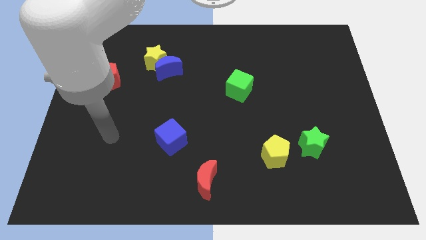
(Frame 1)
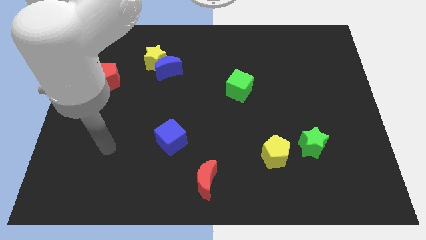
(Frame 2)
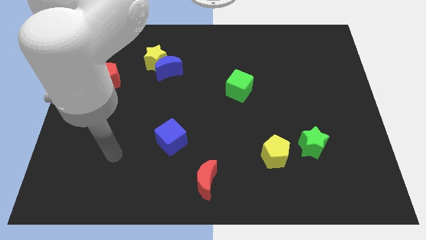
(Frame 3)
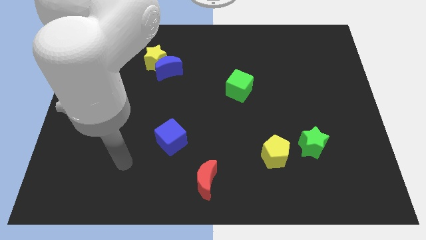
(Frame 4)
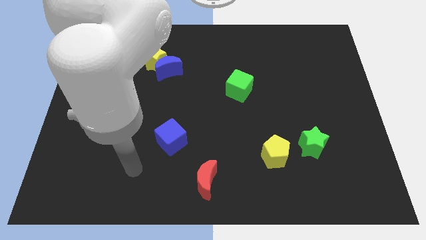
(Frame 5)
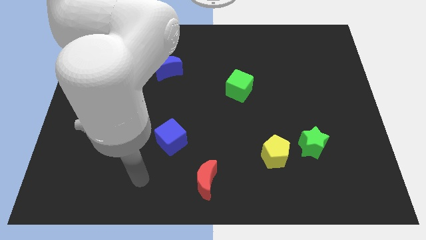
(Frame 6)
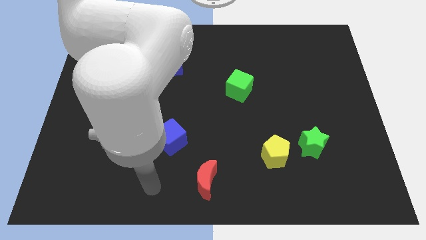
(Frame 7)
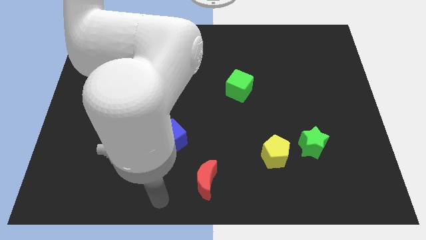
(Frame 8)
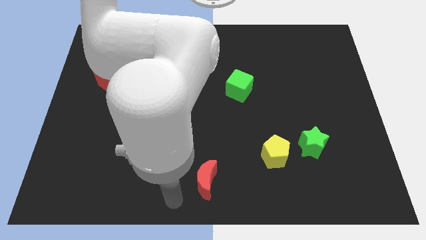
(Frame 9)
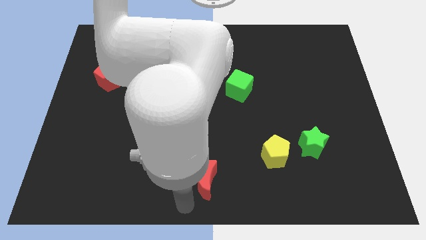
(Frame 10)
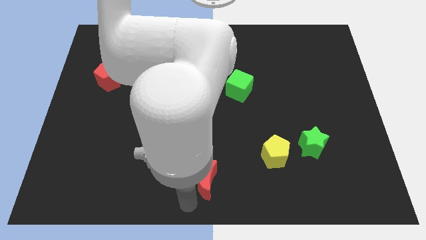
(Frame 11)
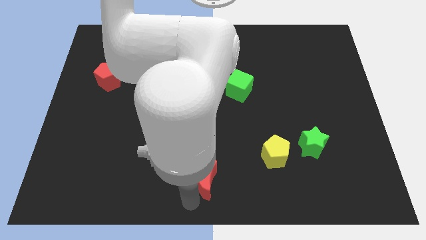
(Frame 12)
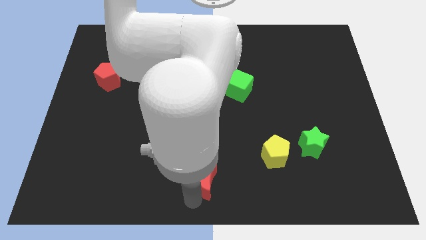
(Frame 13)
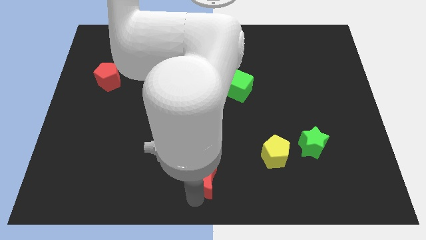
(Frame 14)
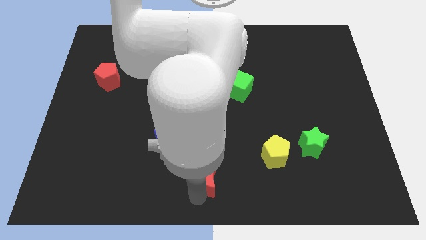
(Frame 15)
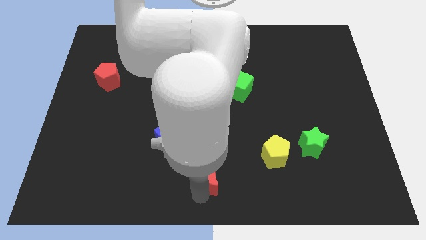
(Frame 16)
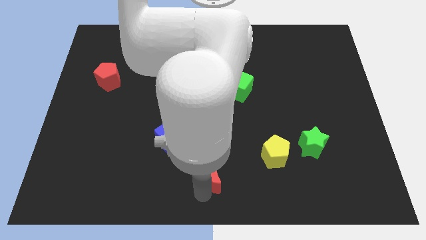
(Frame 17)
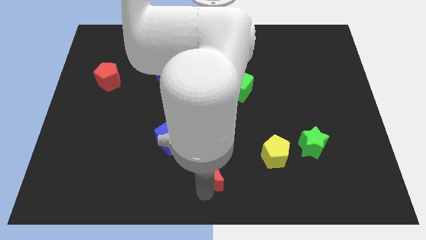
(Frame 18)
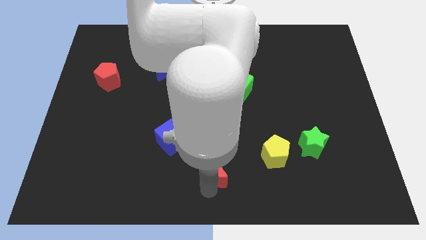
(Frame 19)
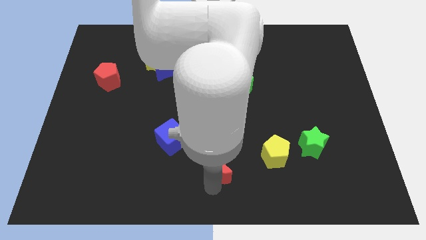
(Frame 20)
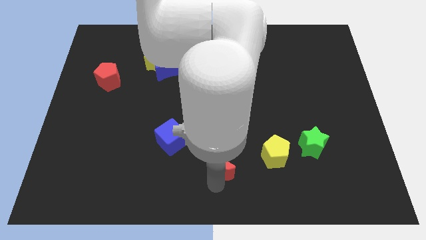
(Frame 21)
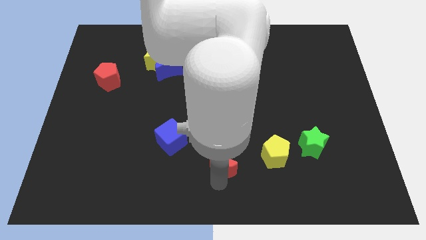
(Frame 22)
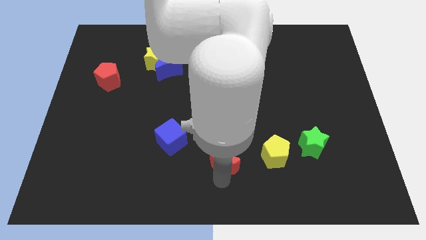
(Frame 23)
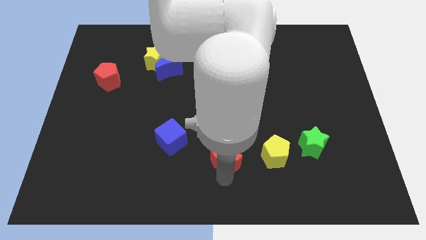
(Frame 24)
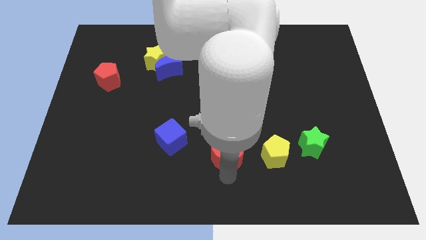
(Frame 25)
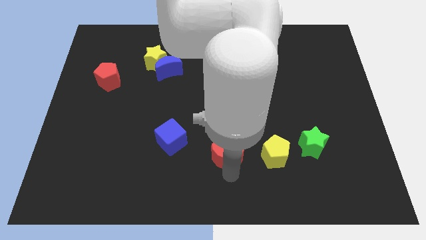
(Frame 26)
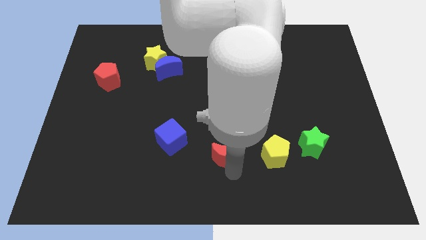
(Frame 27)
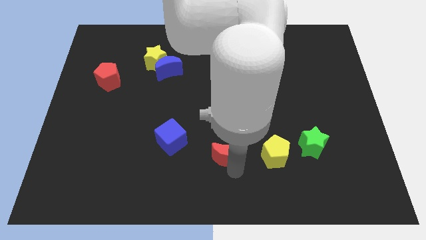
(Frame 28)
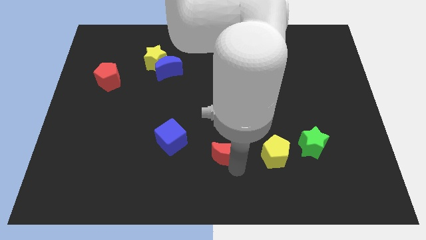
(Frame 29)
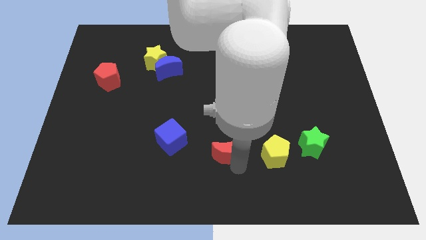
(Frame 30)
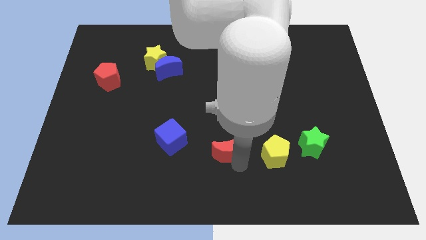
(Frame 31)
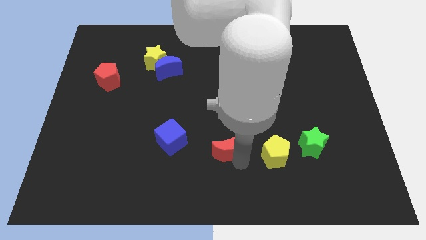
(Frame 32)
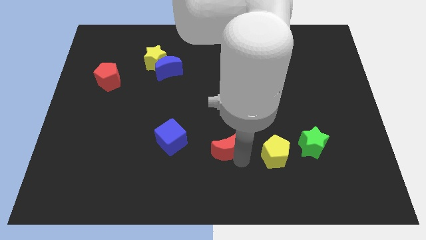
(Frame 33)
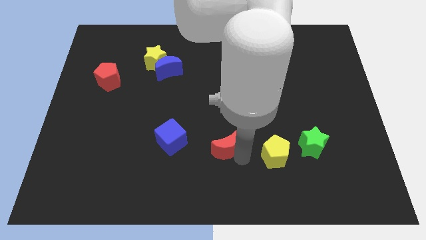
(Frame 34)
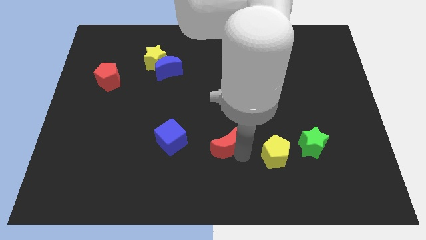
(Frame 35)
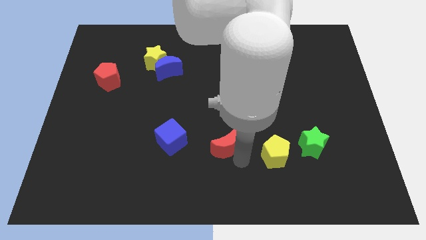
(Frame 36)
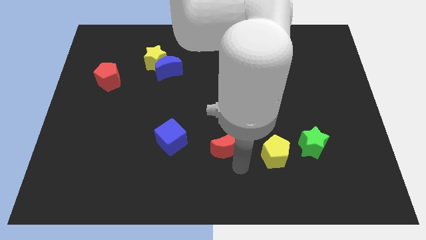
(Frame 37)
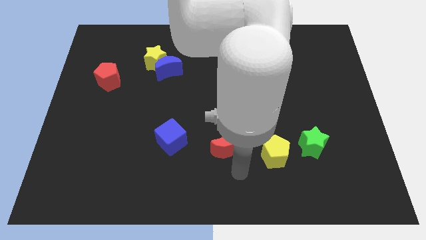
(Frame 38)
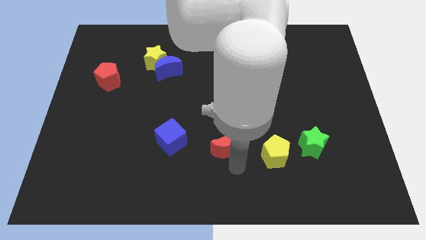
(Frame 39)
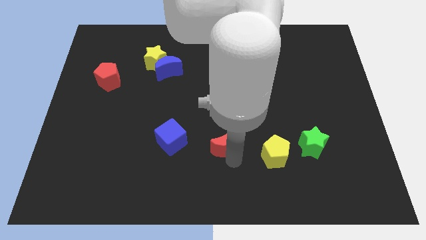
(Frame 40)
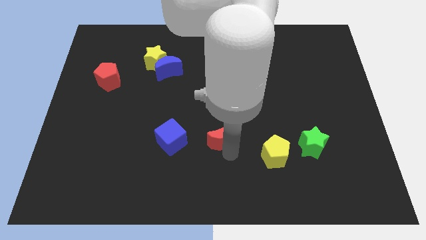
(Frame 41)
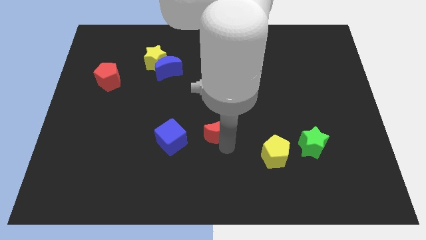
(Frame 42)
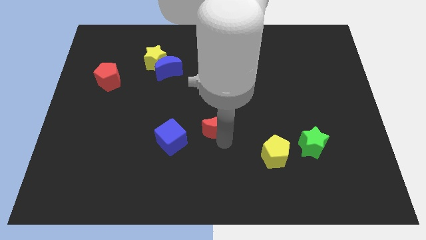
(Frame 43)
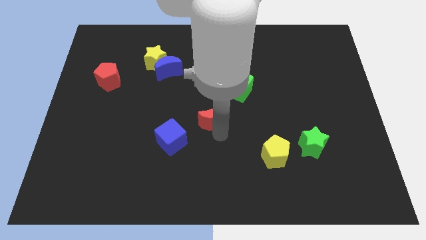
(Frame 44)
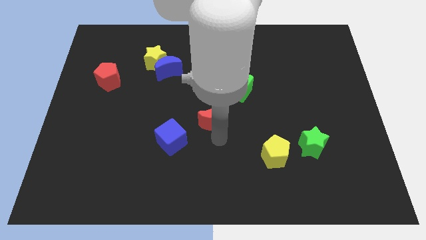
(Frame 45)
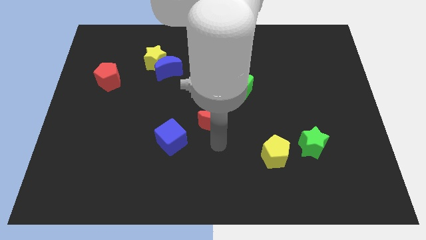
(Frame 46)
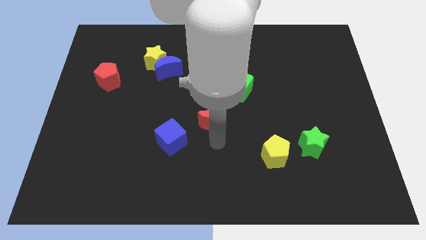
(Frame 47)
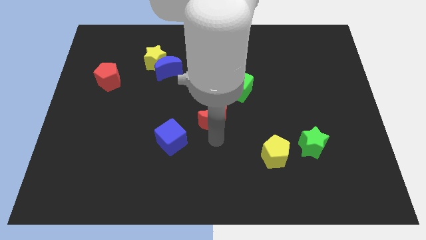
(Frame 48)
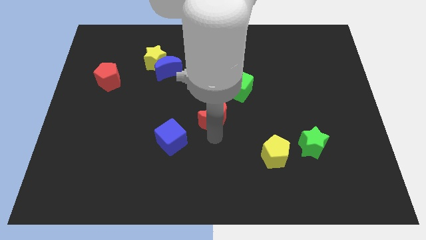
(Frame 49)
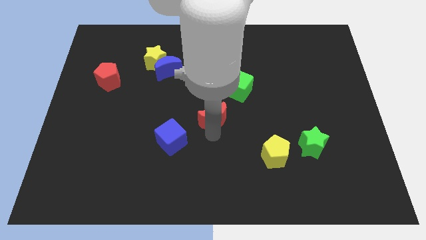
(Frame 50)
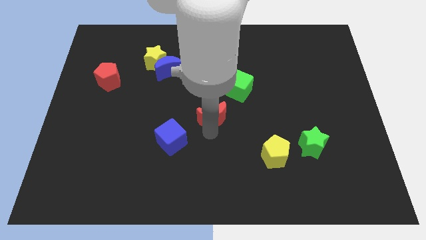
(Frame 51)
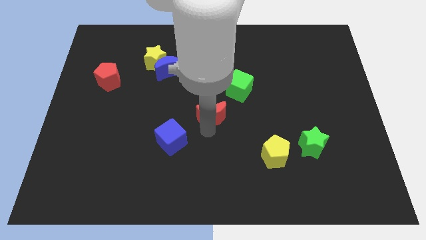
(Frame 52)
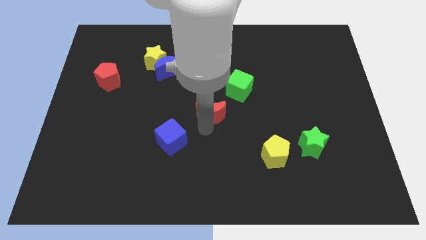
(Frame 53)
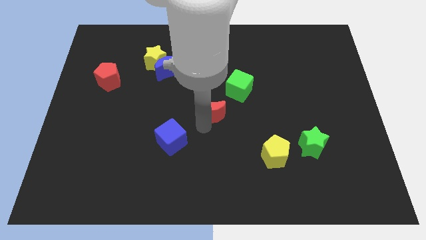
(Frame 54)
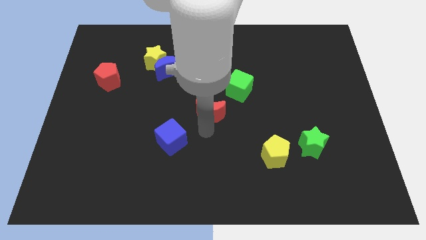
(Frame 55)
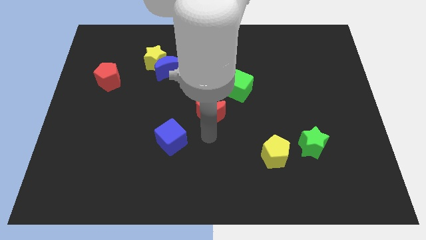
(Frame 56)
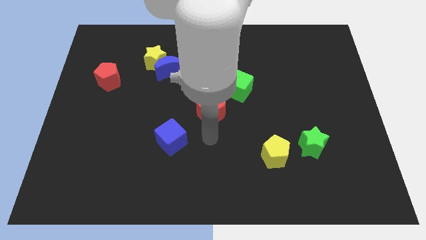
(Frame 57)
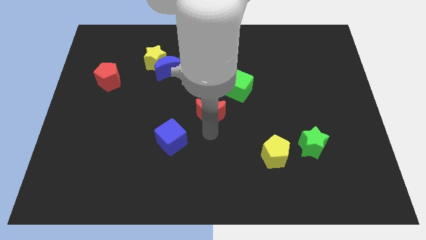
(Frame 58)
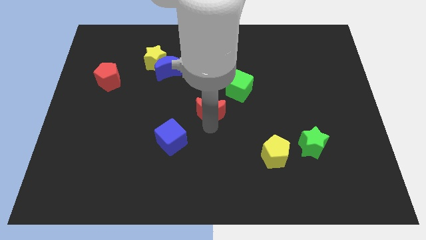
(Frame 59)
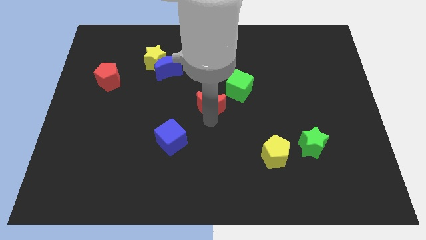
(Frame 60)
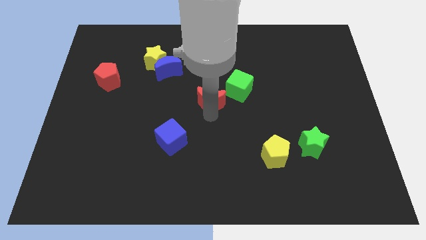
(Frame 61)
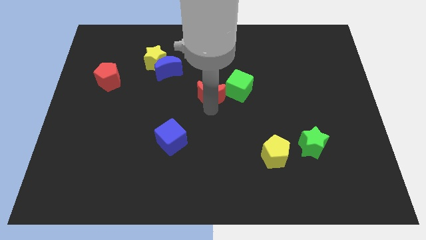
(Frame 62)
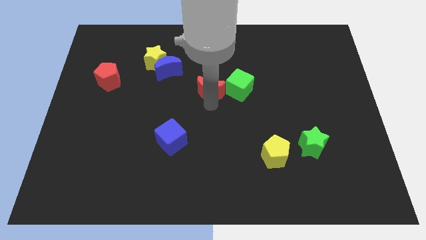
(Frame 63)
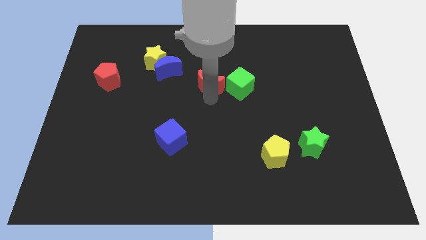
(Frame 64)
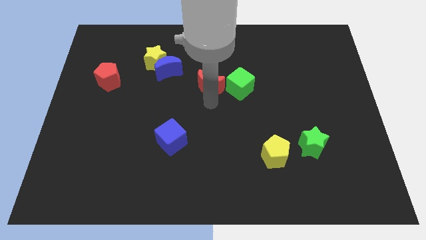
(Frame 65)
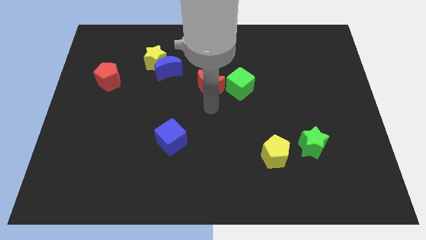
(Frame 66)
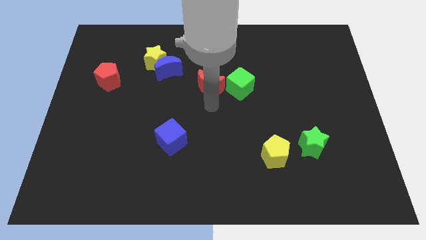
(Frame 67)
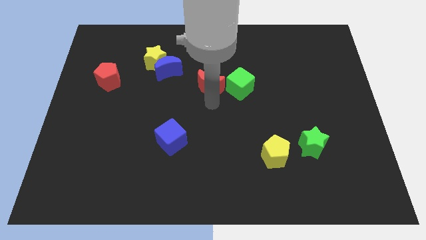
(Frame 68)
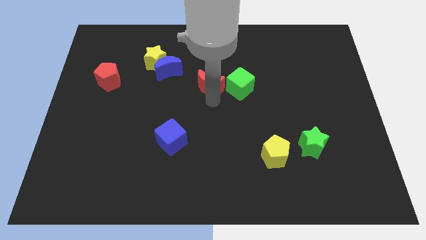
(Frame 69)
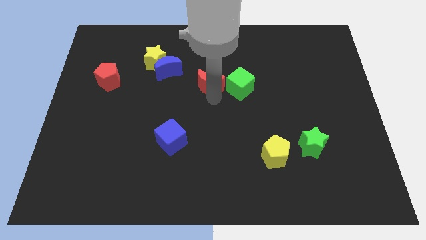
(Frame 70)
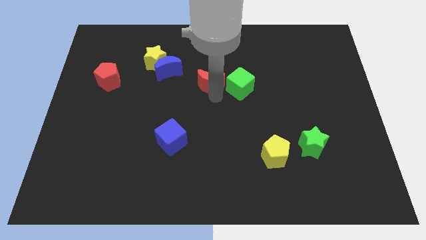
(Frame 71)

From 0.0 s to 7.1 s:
put the red moon just right of the blue moon

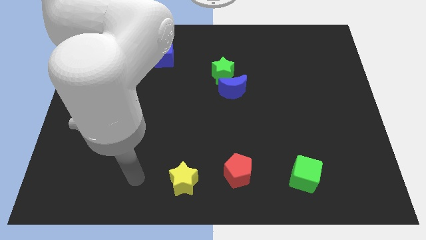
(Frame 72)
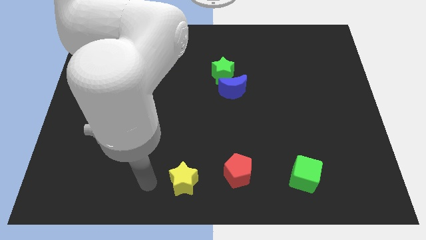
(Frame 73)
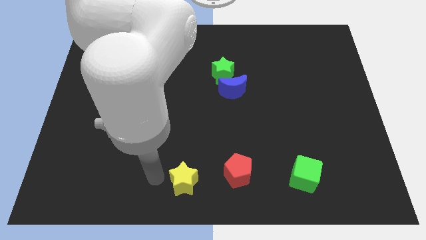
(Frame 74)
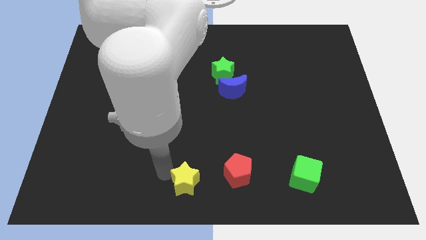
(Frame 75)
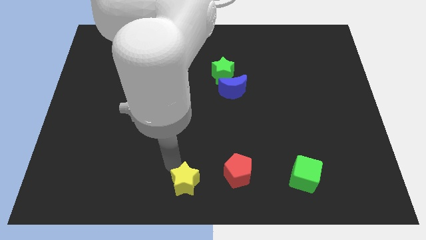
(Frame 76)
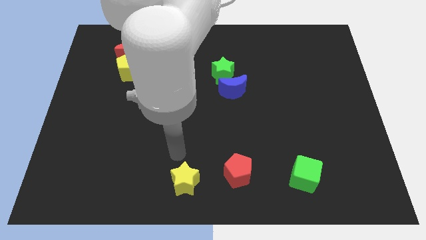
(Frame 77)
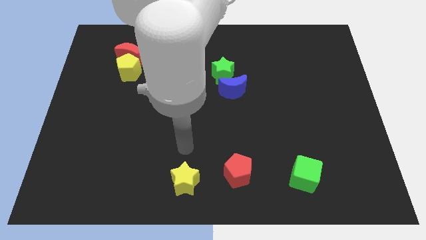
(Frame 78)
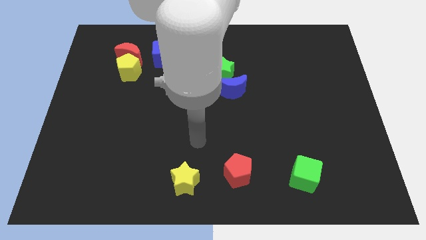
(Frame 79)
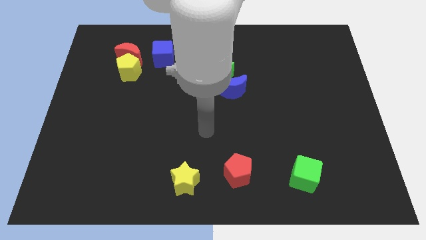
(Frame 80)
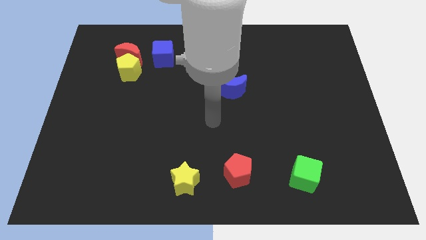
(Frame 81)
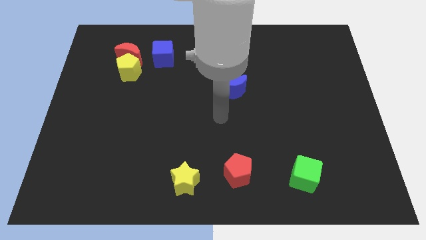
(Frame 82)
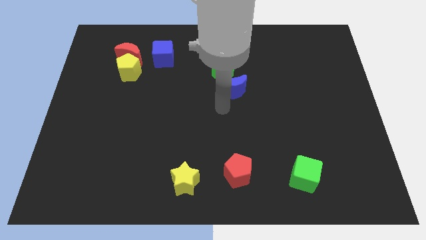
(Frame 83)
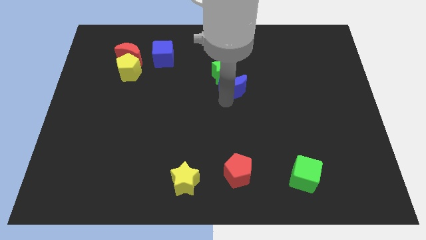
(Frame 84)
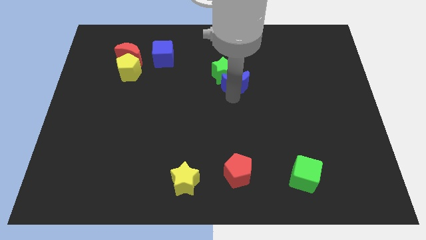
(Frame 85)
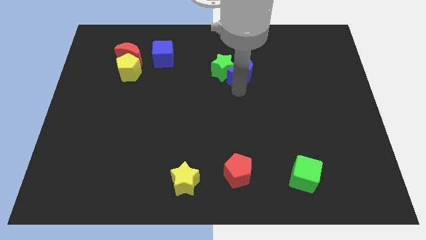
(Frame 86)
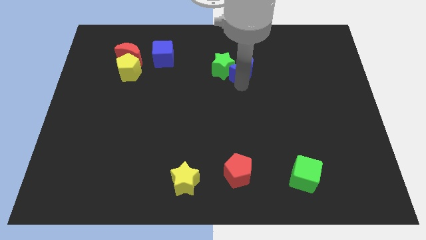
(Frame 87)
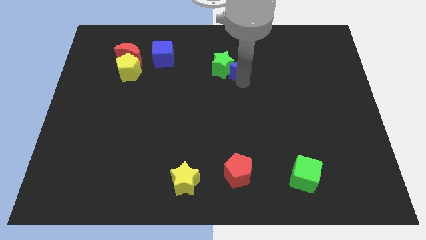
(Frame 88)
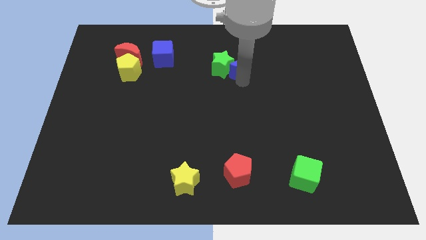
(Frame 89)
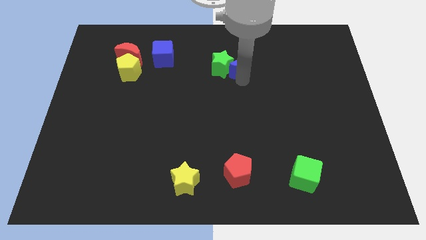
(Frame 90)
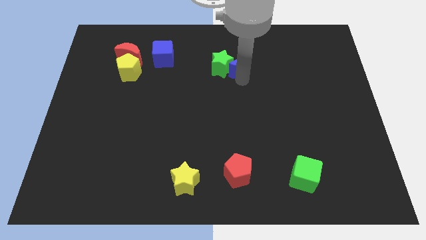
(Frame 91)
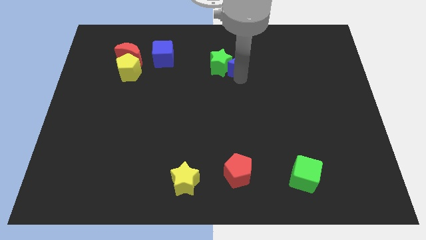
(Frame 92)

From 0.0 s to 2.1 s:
slide the green star to the right side of the blue cube
